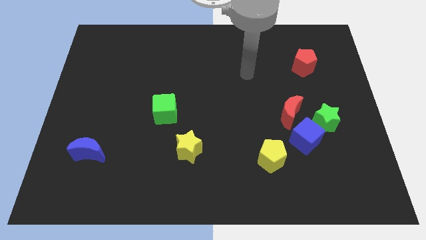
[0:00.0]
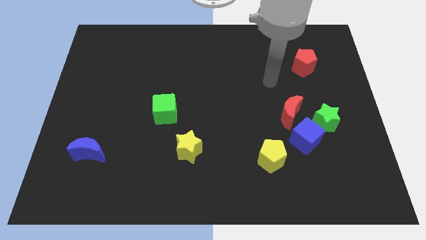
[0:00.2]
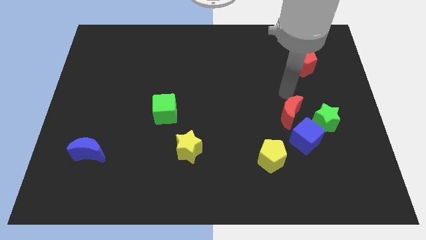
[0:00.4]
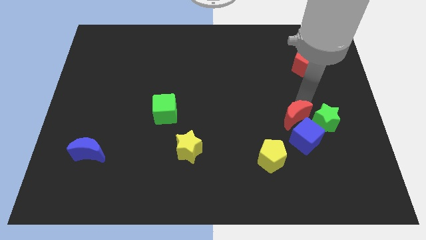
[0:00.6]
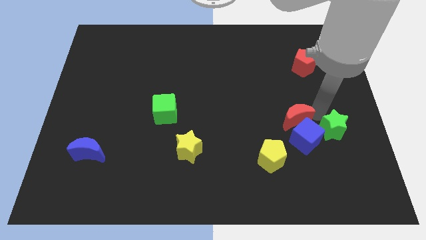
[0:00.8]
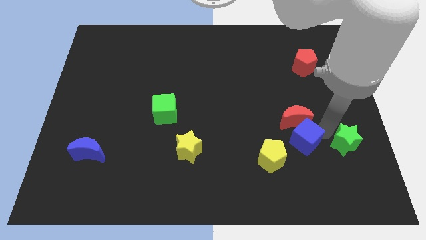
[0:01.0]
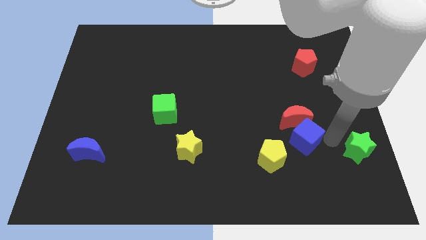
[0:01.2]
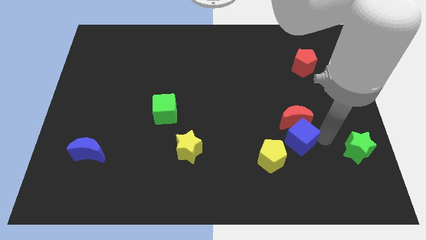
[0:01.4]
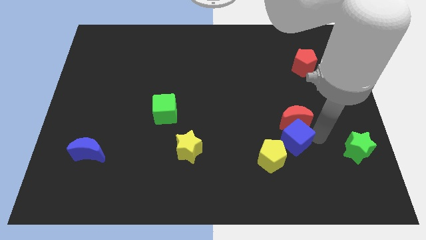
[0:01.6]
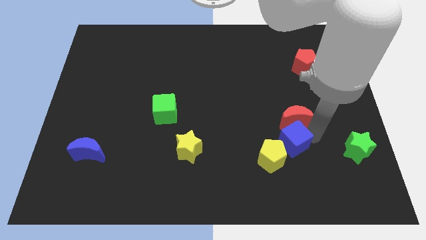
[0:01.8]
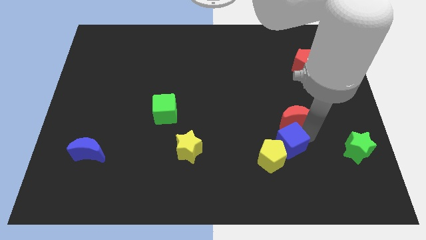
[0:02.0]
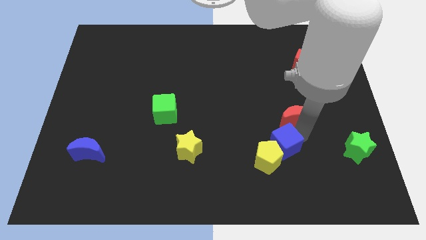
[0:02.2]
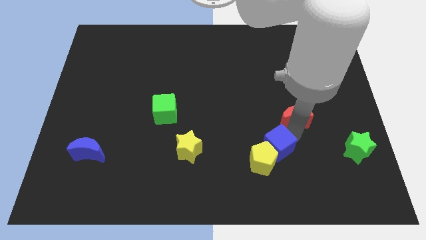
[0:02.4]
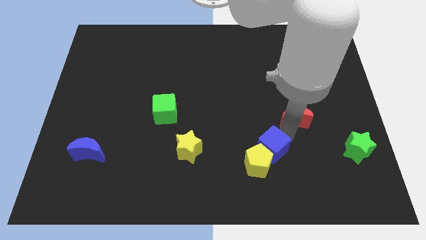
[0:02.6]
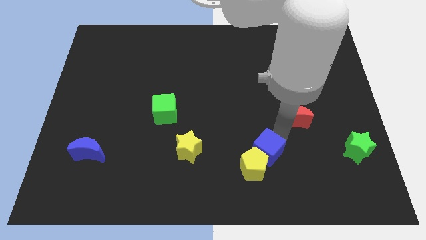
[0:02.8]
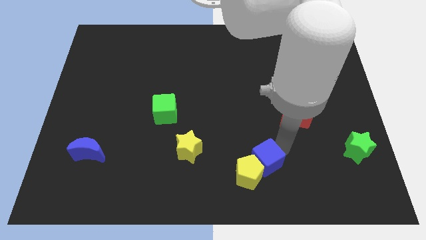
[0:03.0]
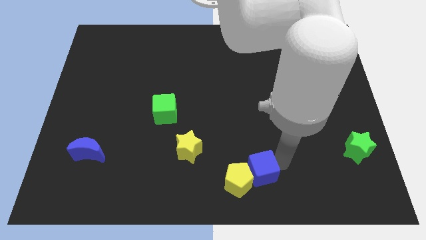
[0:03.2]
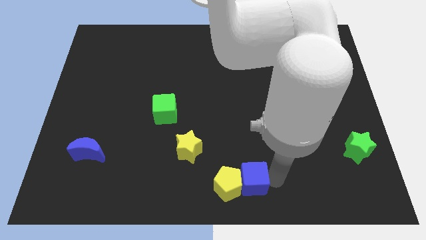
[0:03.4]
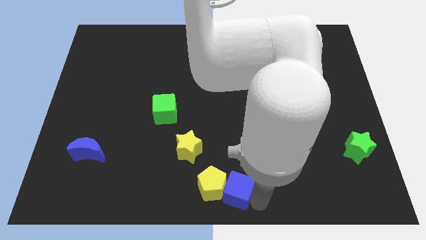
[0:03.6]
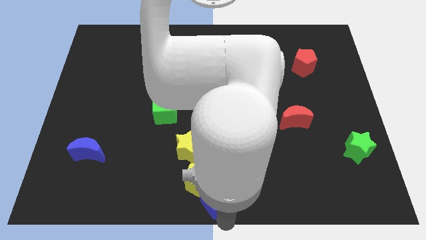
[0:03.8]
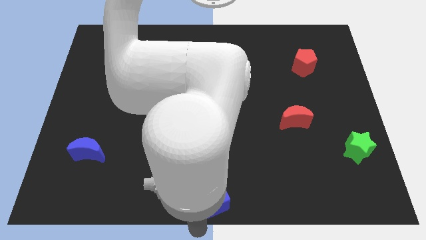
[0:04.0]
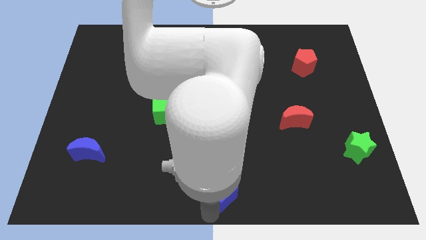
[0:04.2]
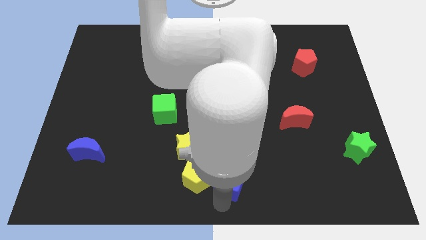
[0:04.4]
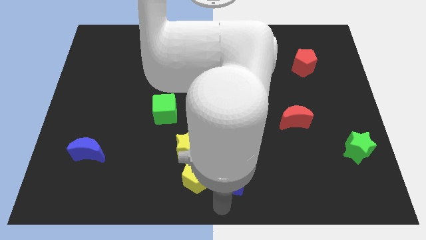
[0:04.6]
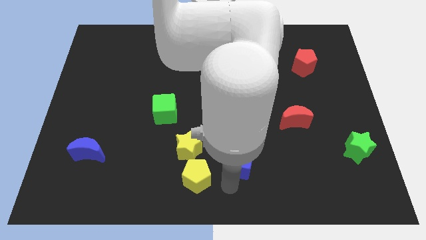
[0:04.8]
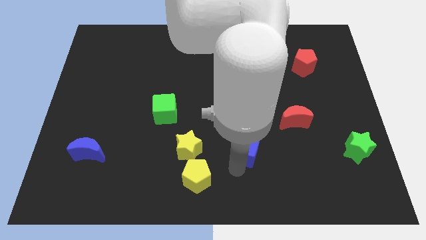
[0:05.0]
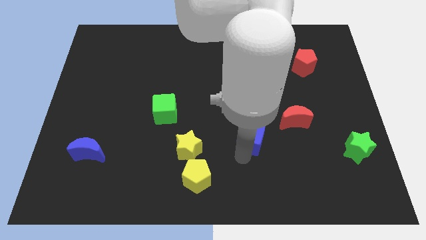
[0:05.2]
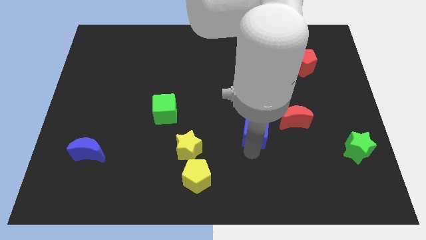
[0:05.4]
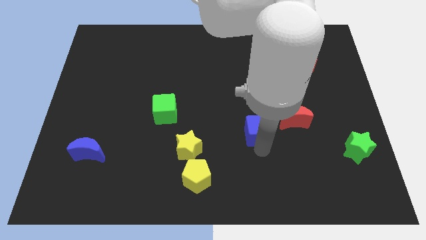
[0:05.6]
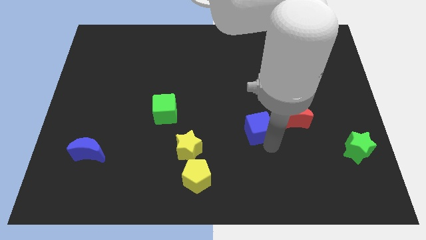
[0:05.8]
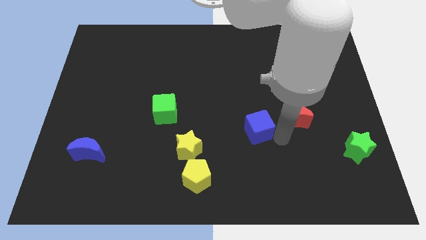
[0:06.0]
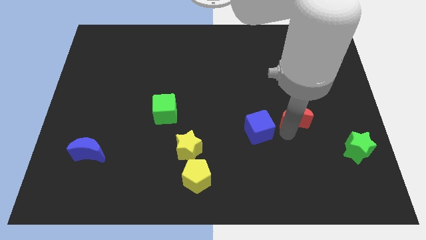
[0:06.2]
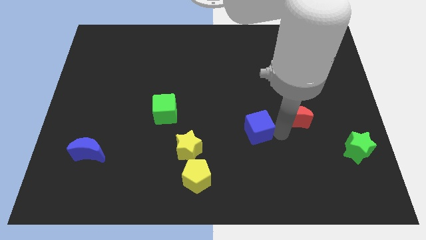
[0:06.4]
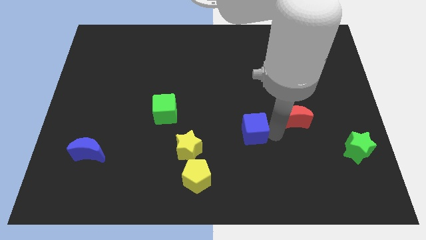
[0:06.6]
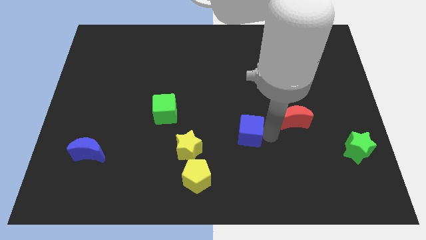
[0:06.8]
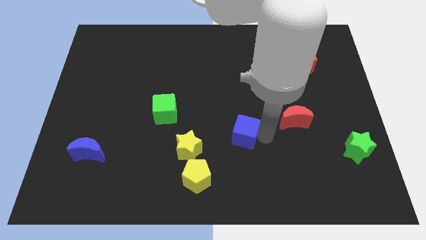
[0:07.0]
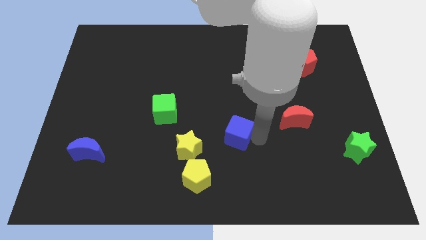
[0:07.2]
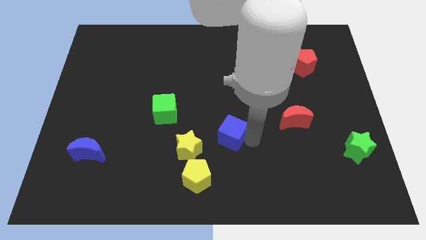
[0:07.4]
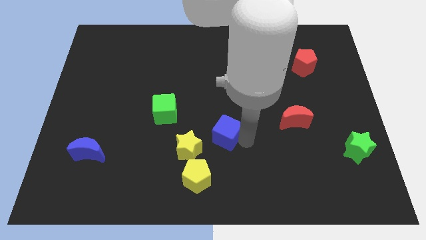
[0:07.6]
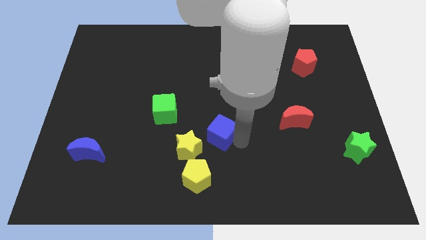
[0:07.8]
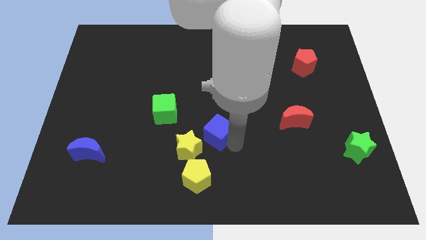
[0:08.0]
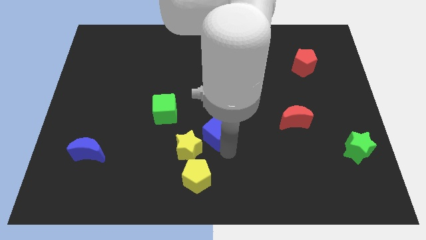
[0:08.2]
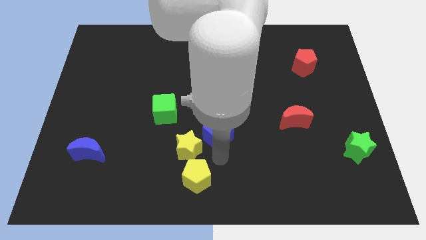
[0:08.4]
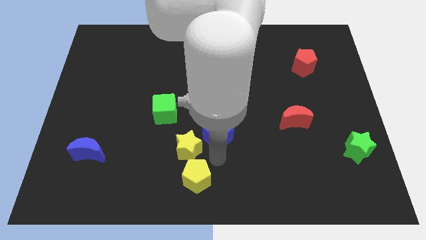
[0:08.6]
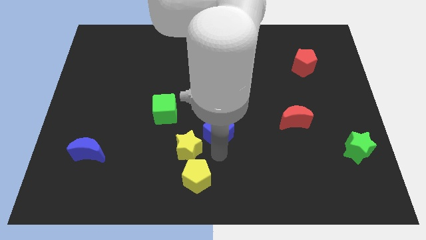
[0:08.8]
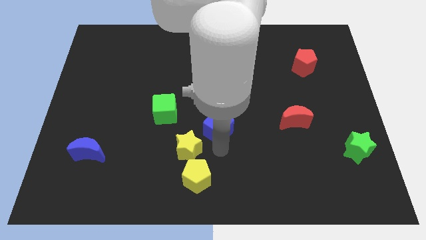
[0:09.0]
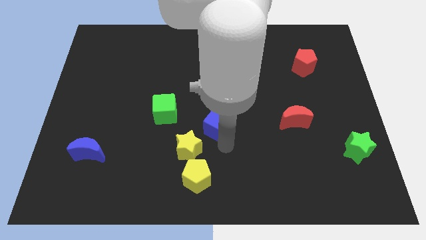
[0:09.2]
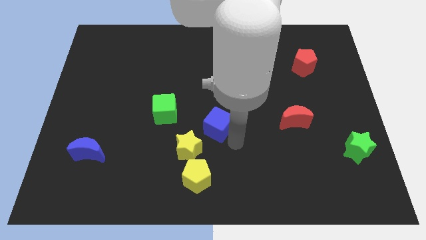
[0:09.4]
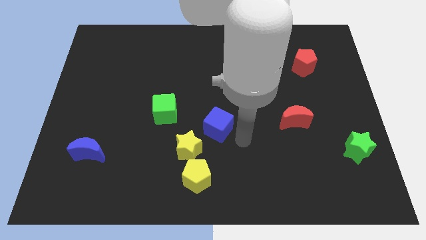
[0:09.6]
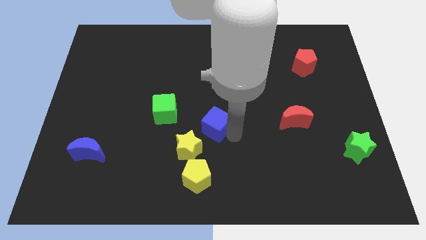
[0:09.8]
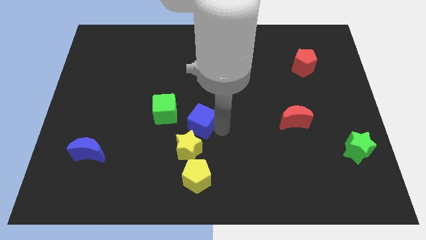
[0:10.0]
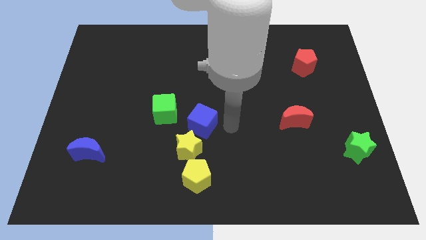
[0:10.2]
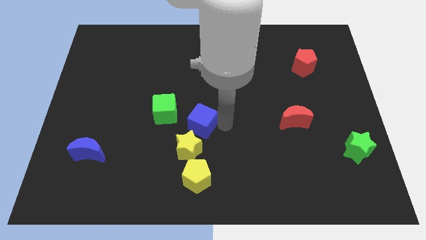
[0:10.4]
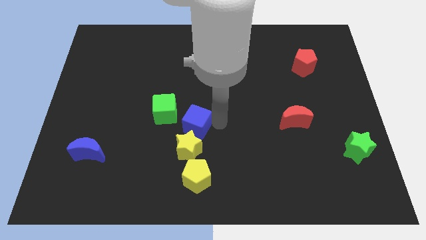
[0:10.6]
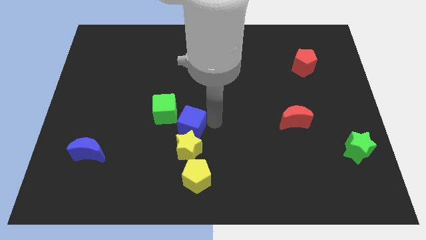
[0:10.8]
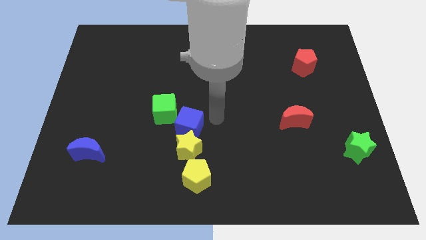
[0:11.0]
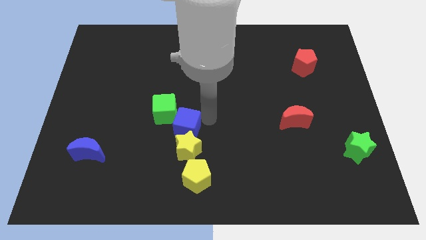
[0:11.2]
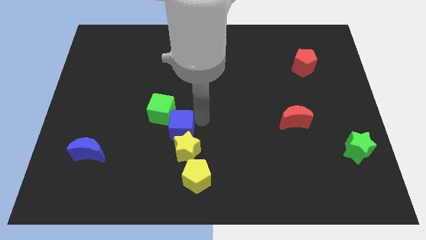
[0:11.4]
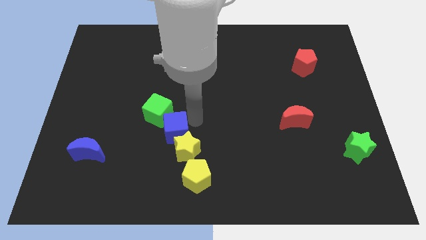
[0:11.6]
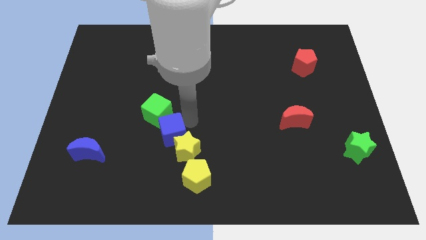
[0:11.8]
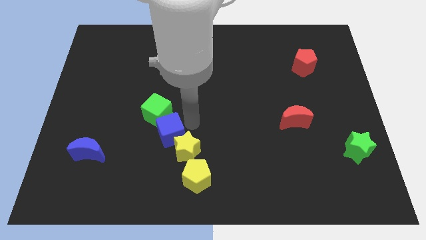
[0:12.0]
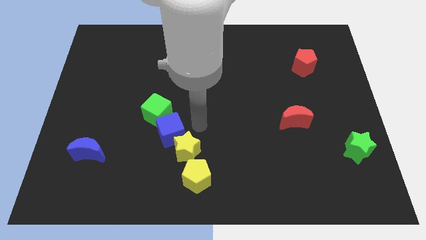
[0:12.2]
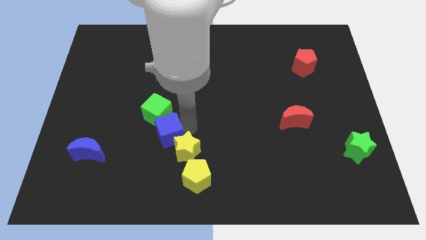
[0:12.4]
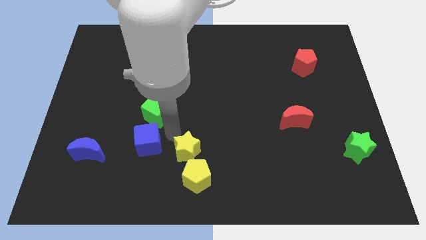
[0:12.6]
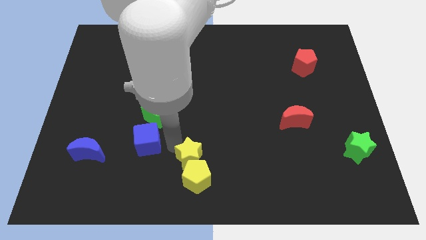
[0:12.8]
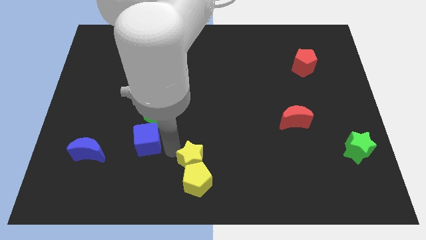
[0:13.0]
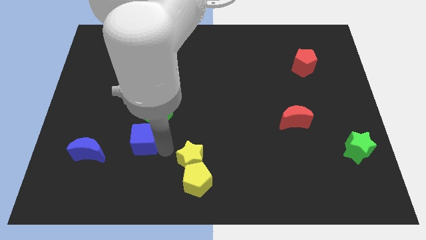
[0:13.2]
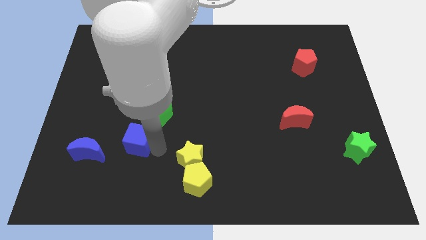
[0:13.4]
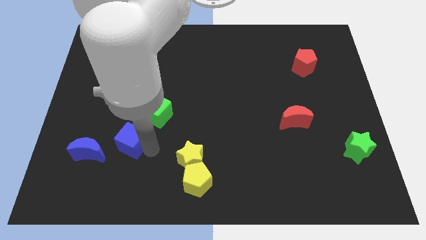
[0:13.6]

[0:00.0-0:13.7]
slide the blue cube to the top right of the blue moon

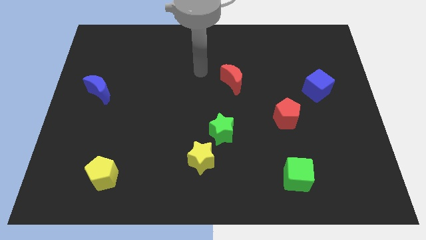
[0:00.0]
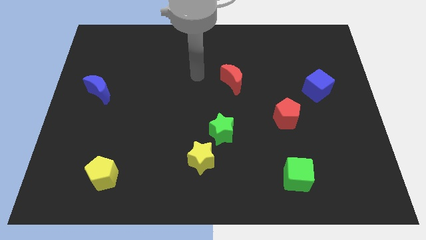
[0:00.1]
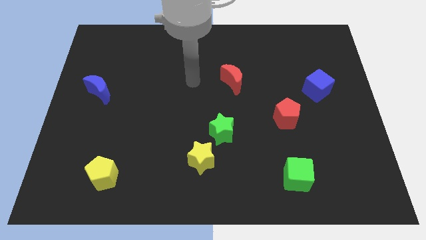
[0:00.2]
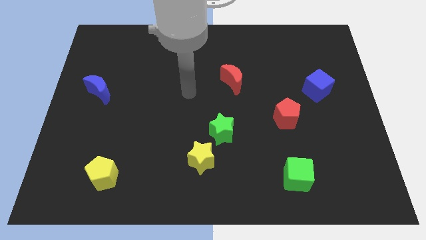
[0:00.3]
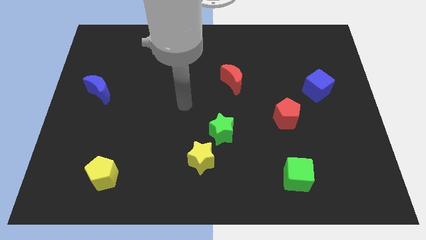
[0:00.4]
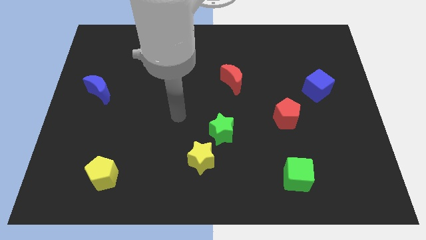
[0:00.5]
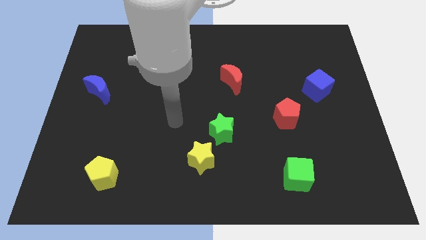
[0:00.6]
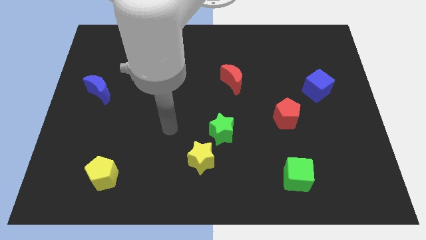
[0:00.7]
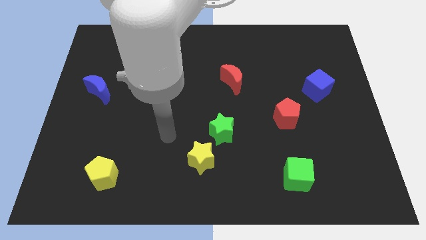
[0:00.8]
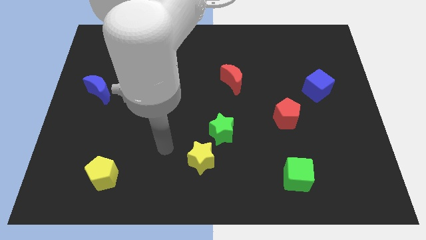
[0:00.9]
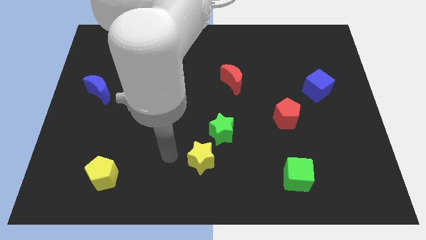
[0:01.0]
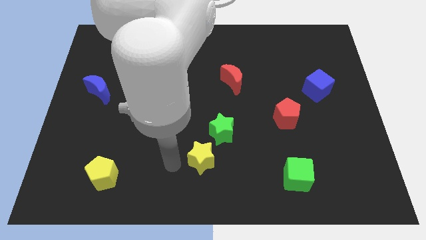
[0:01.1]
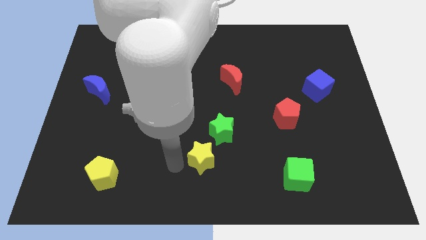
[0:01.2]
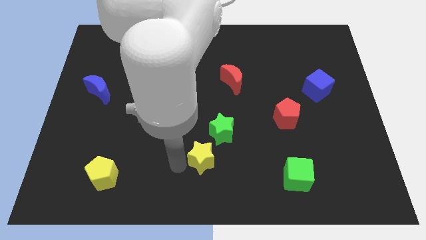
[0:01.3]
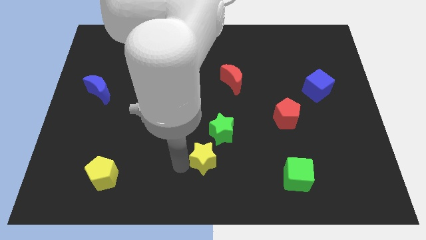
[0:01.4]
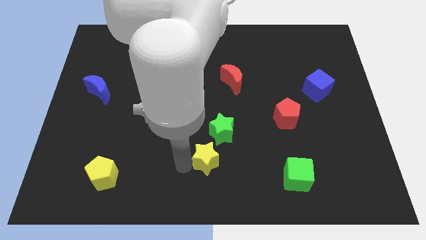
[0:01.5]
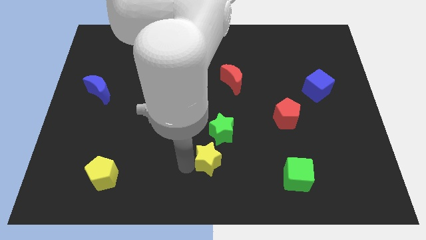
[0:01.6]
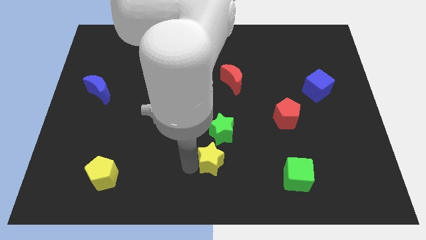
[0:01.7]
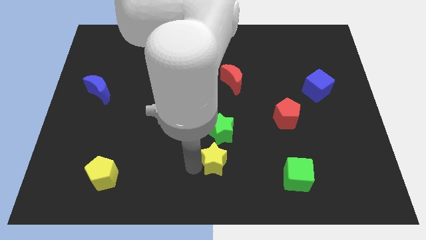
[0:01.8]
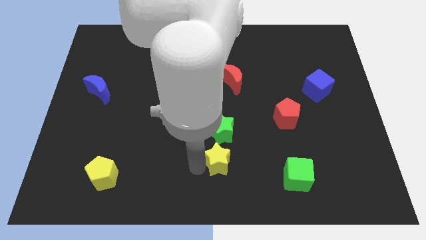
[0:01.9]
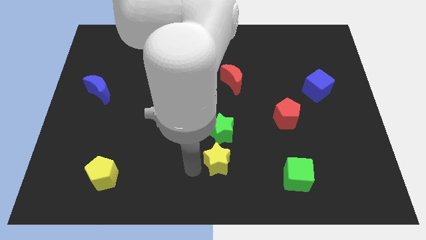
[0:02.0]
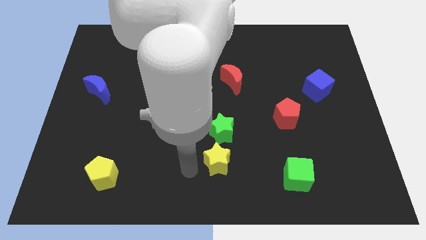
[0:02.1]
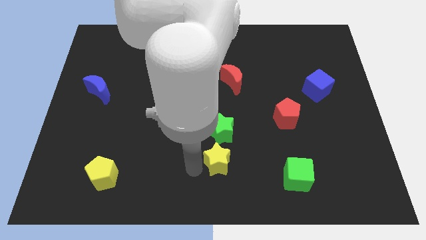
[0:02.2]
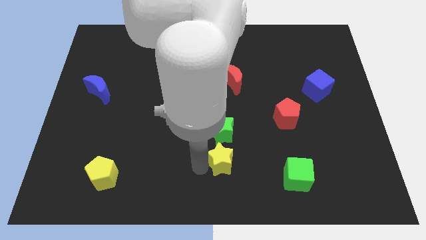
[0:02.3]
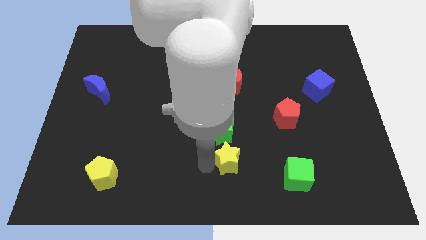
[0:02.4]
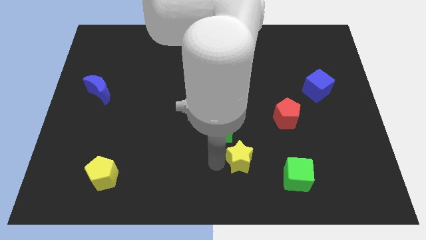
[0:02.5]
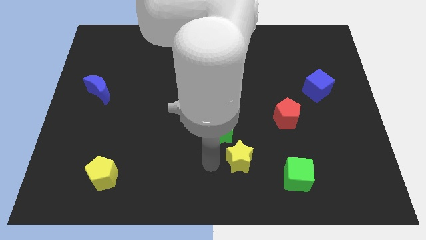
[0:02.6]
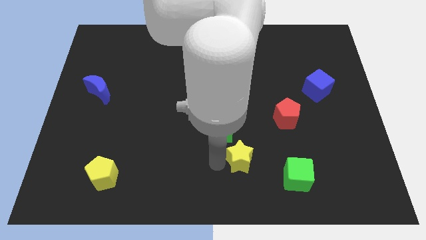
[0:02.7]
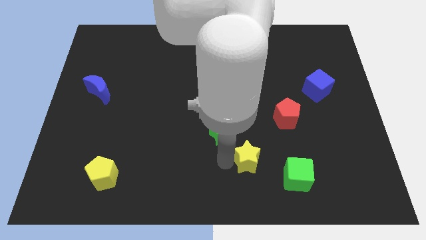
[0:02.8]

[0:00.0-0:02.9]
move the yellow star diagonally up and to the left of the green cube
